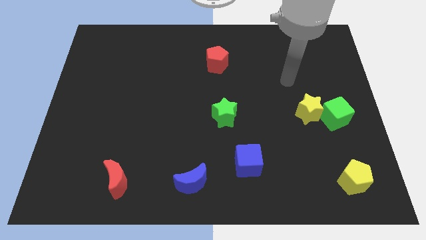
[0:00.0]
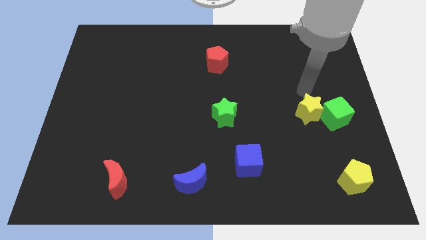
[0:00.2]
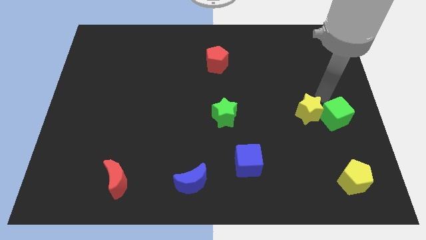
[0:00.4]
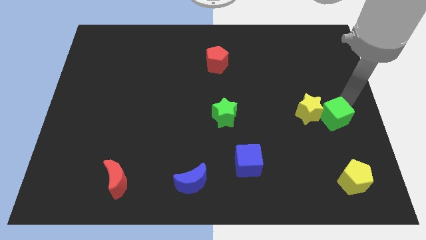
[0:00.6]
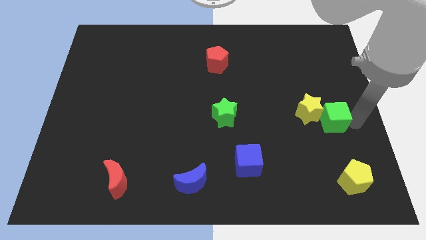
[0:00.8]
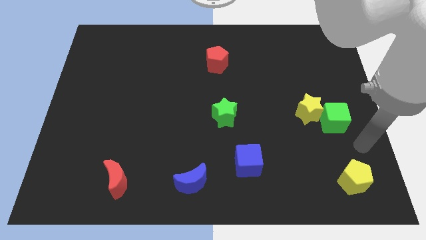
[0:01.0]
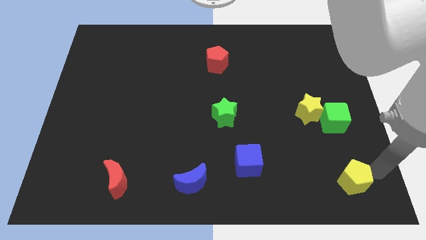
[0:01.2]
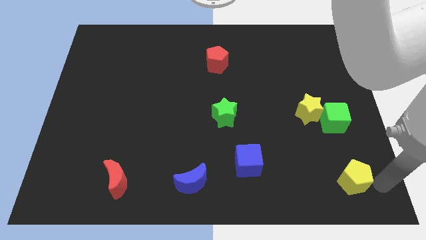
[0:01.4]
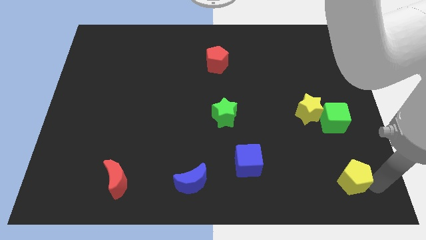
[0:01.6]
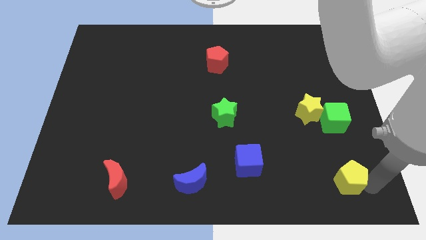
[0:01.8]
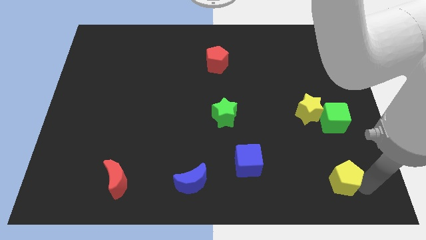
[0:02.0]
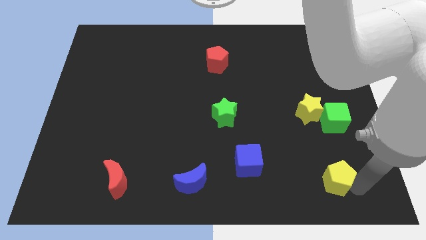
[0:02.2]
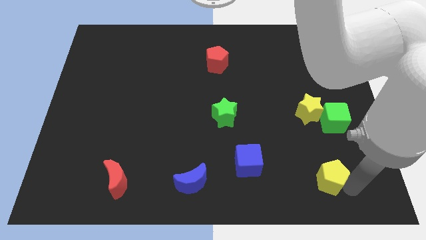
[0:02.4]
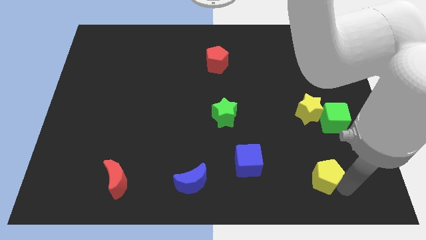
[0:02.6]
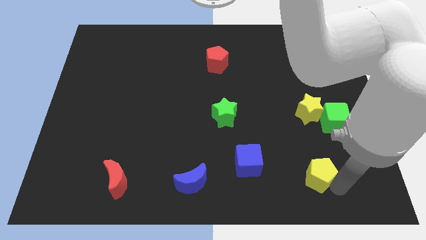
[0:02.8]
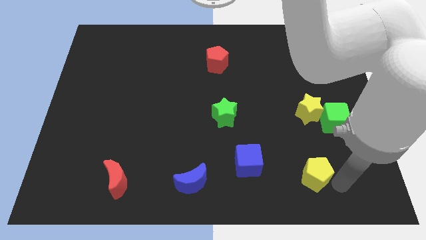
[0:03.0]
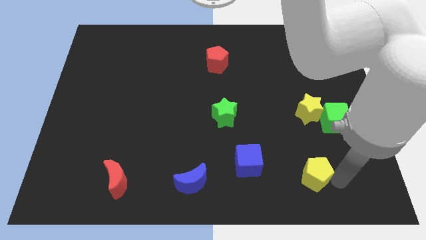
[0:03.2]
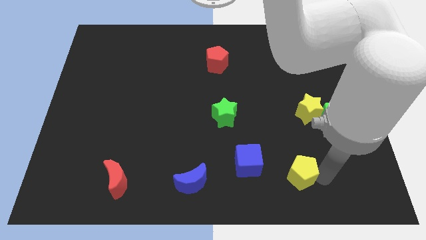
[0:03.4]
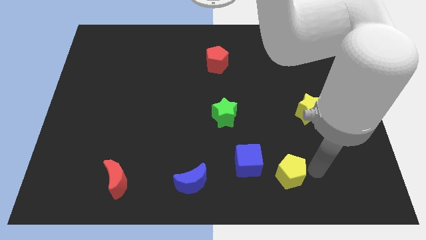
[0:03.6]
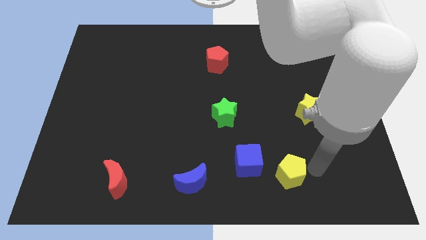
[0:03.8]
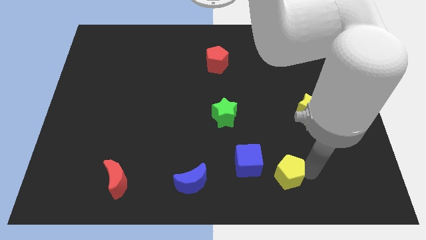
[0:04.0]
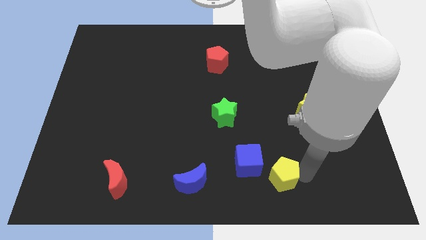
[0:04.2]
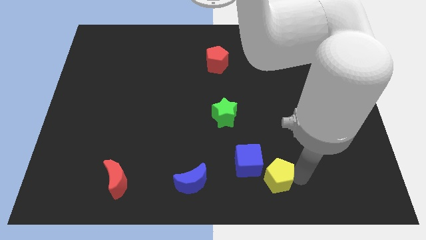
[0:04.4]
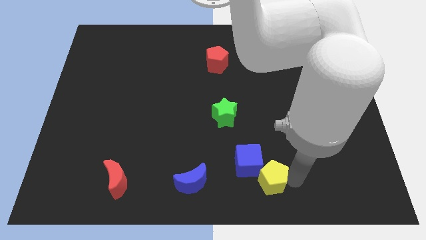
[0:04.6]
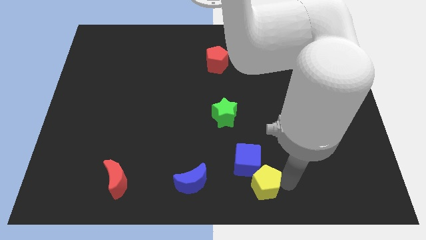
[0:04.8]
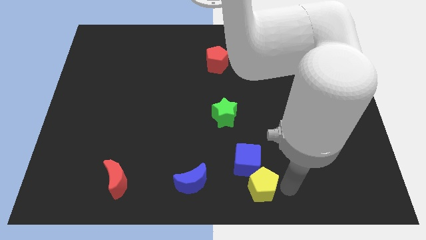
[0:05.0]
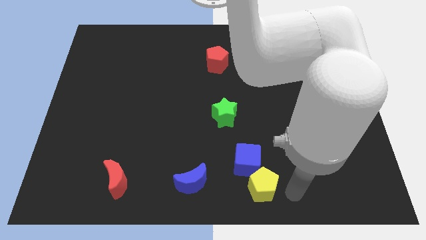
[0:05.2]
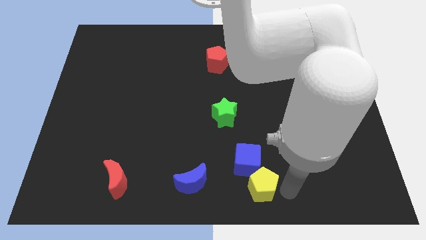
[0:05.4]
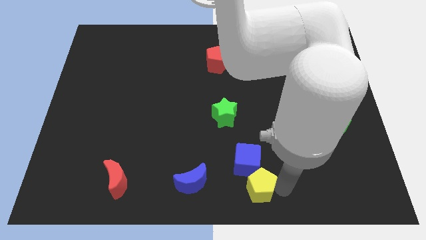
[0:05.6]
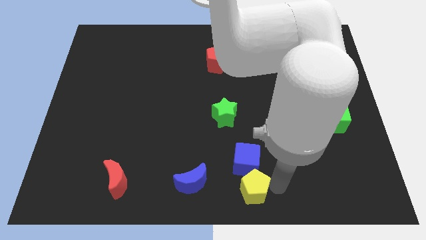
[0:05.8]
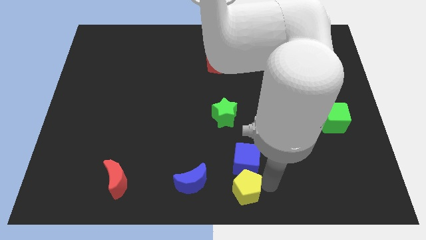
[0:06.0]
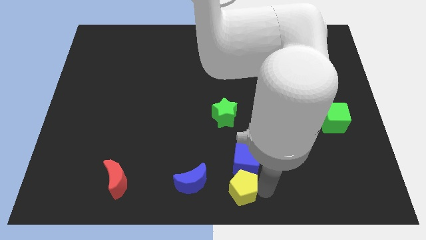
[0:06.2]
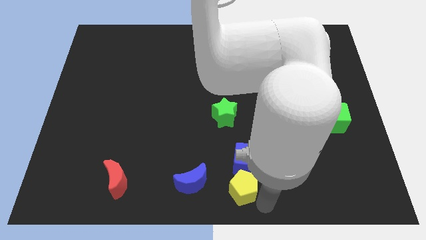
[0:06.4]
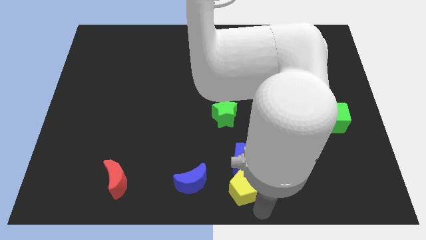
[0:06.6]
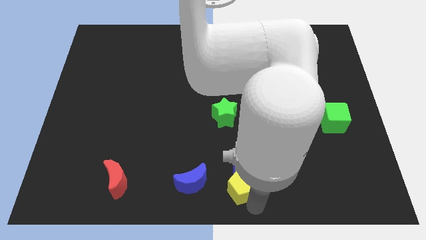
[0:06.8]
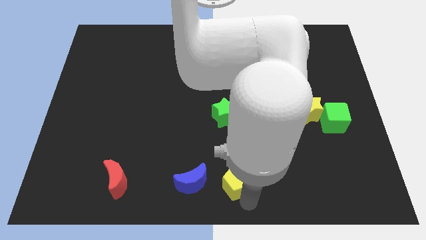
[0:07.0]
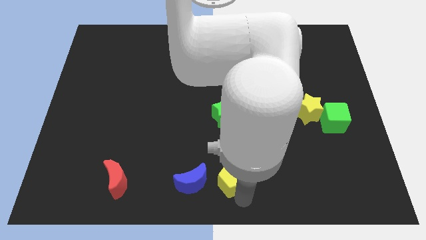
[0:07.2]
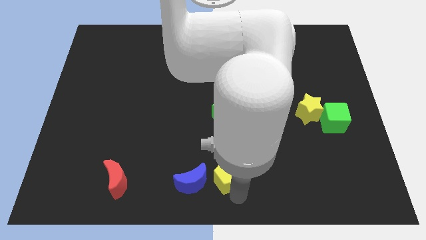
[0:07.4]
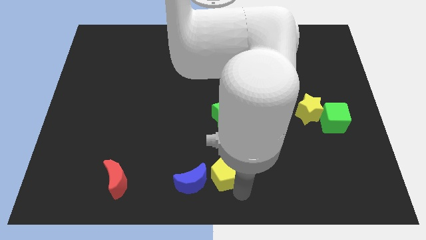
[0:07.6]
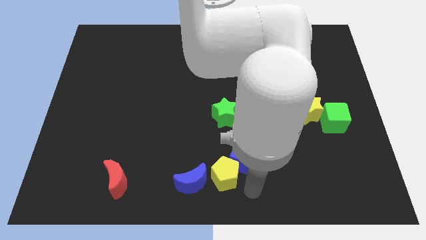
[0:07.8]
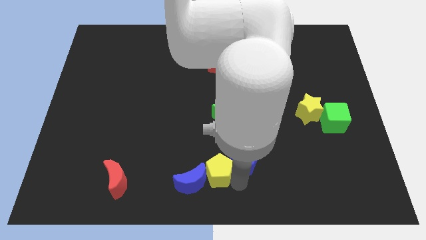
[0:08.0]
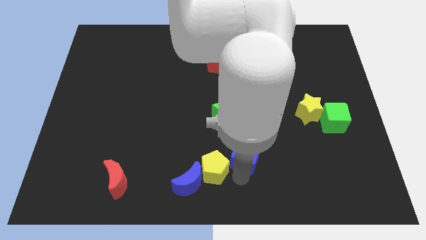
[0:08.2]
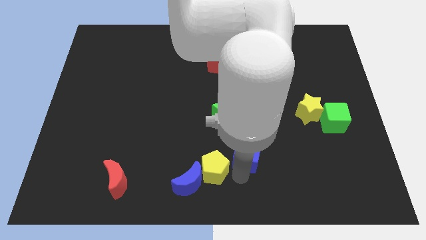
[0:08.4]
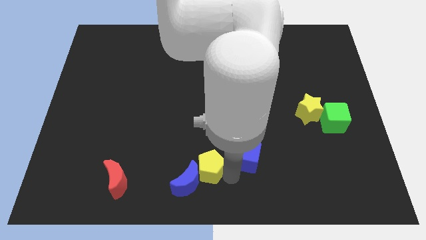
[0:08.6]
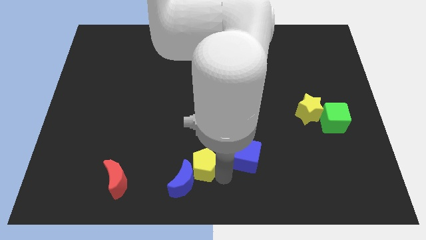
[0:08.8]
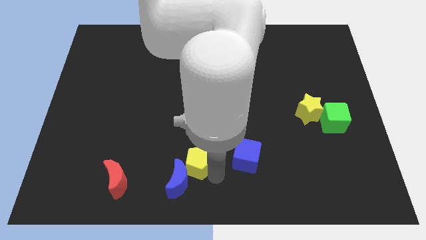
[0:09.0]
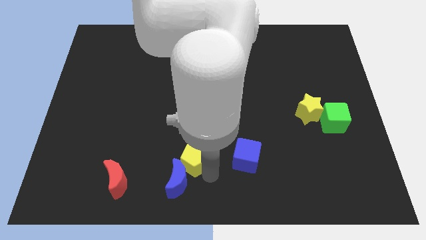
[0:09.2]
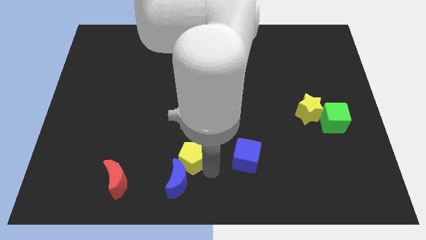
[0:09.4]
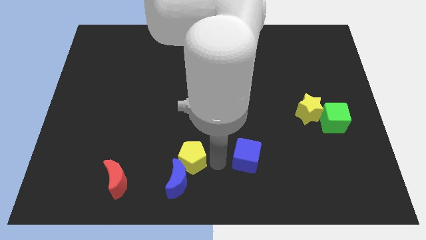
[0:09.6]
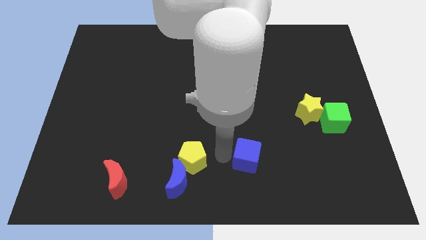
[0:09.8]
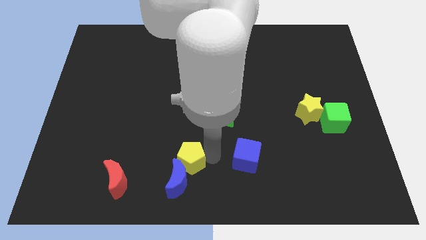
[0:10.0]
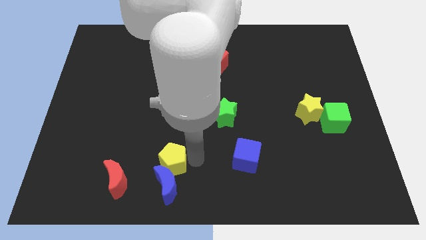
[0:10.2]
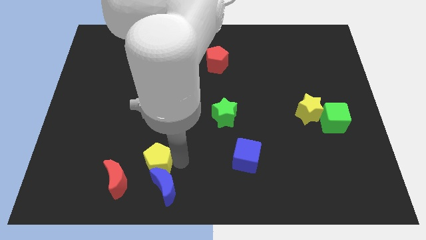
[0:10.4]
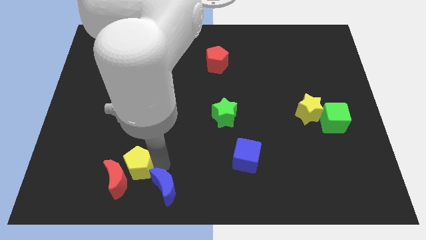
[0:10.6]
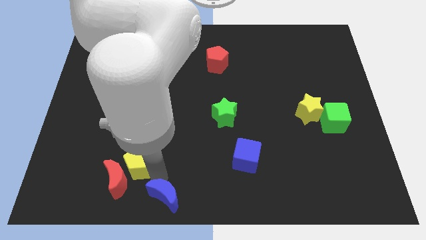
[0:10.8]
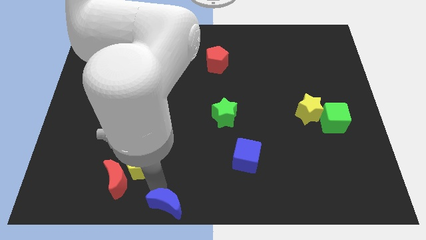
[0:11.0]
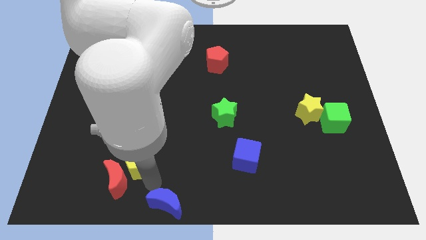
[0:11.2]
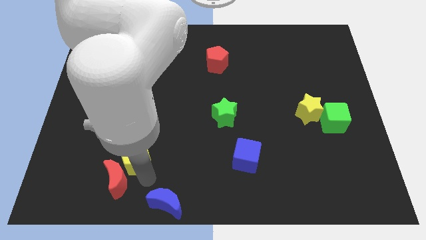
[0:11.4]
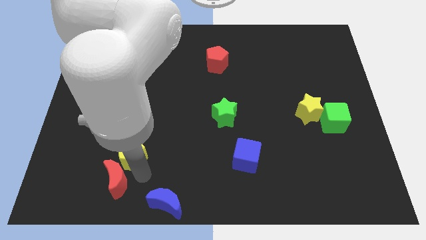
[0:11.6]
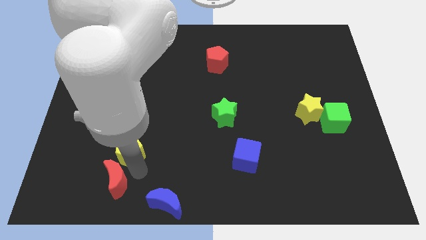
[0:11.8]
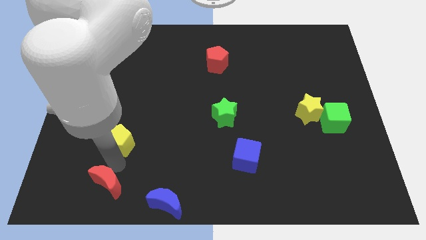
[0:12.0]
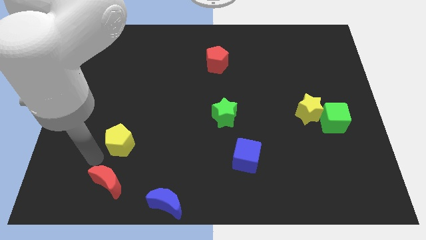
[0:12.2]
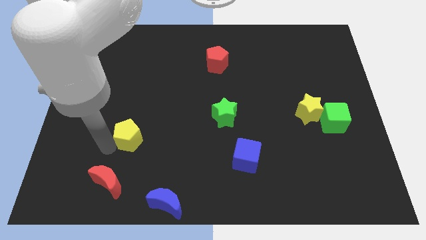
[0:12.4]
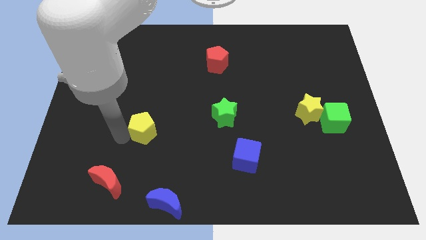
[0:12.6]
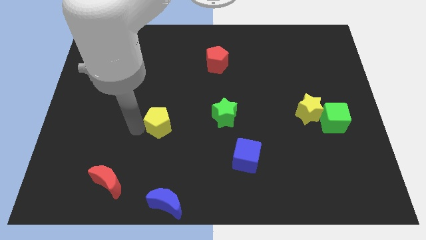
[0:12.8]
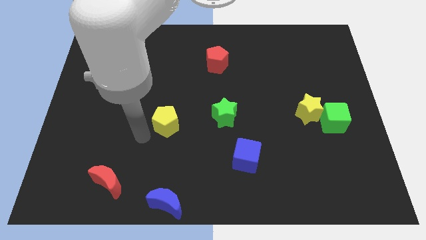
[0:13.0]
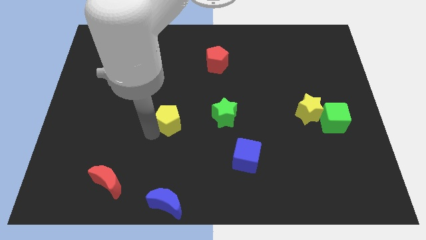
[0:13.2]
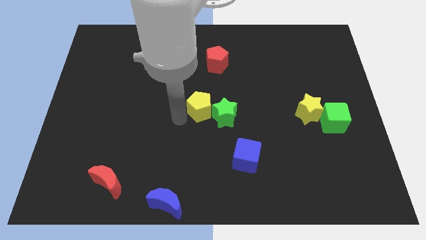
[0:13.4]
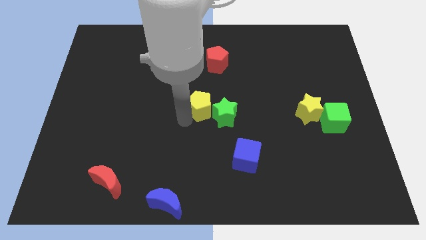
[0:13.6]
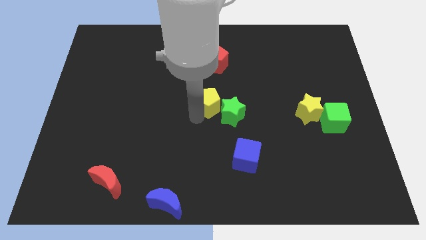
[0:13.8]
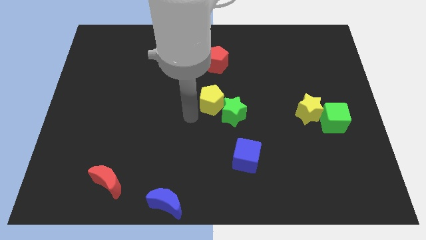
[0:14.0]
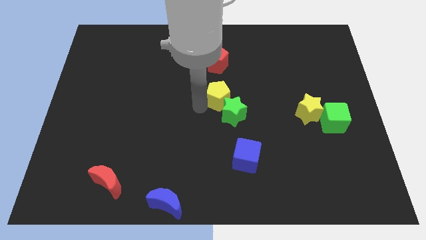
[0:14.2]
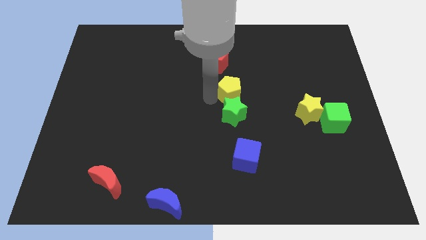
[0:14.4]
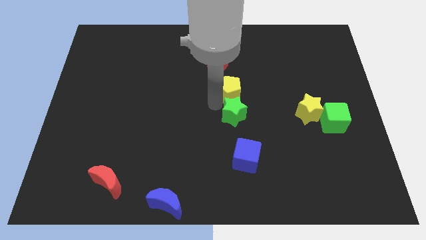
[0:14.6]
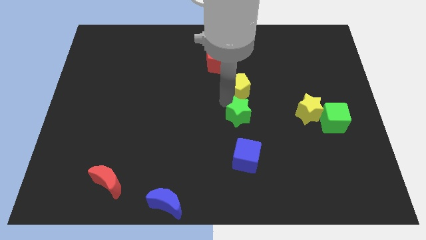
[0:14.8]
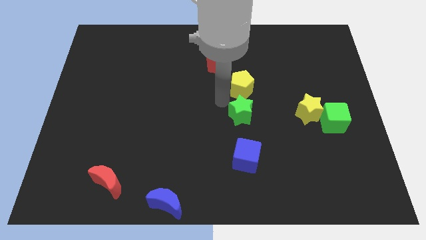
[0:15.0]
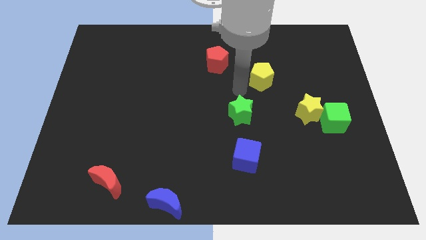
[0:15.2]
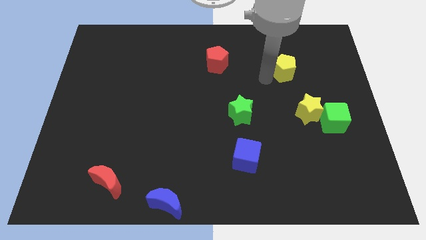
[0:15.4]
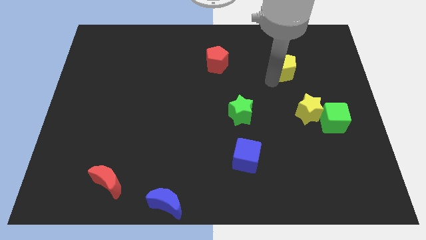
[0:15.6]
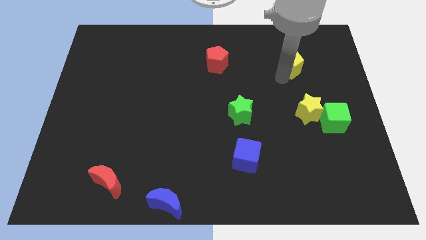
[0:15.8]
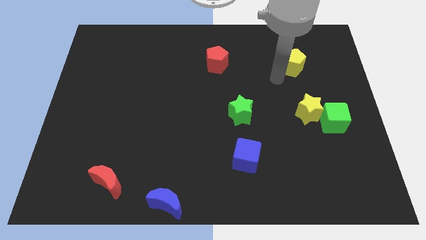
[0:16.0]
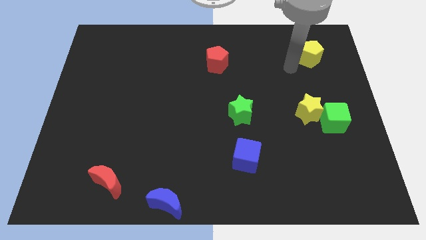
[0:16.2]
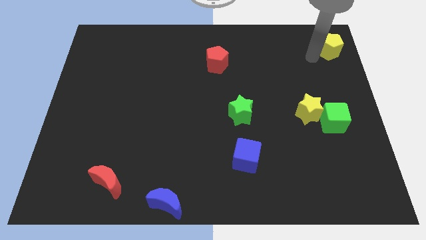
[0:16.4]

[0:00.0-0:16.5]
slide the yellow pentagon to the top right of the board
